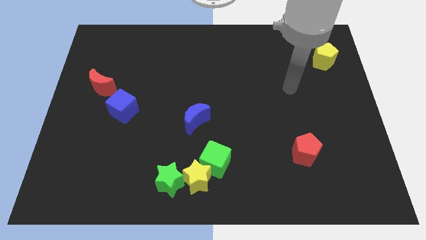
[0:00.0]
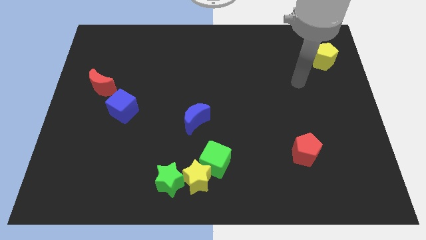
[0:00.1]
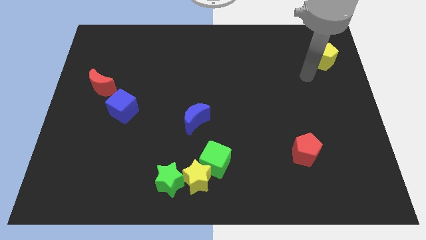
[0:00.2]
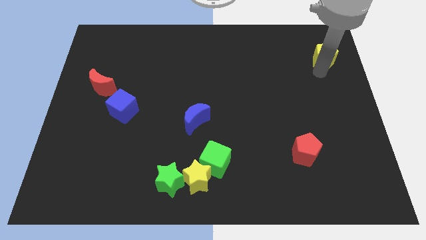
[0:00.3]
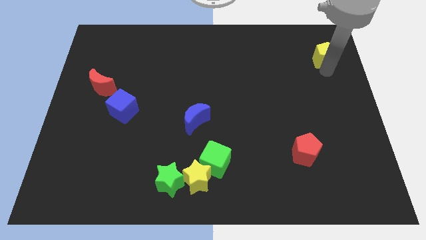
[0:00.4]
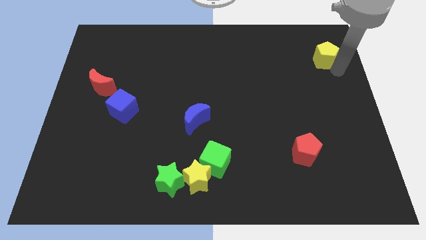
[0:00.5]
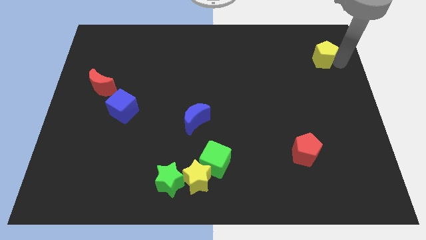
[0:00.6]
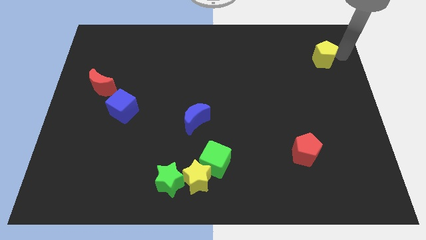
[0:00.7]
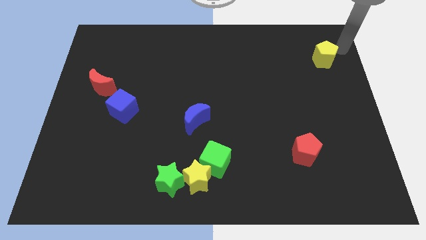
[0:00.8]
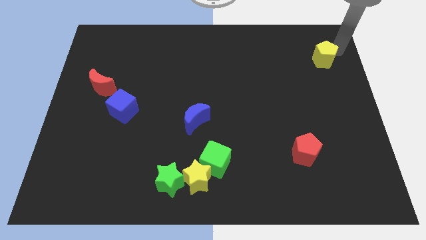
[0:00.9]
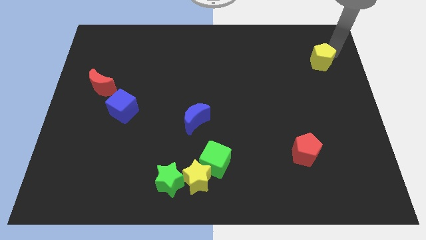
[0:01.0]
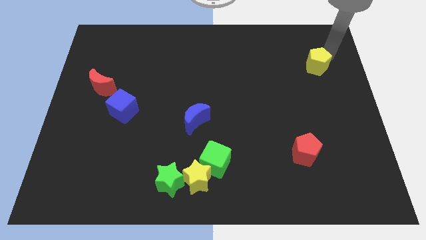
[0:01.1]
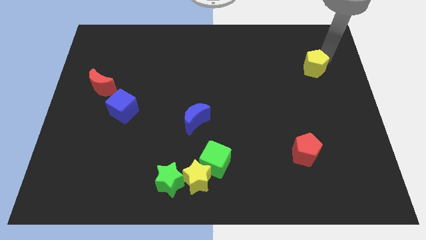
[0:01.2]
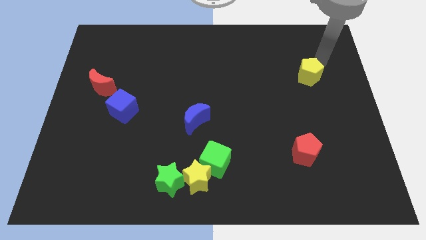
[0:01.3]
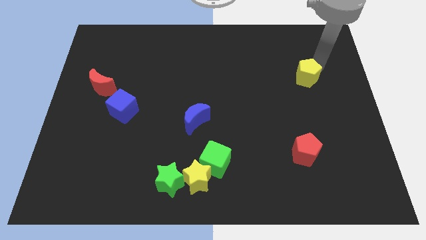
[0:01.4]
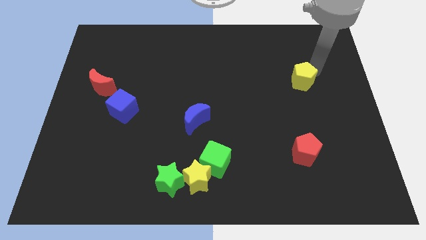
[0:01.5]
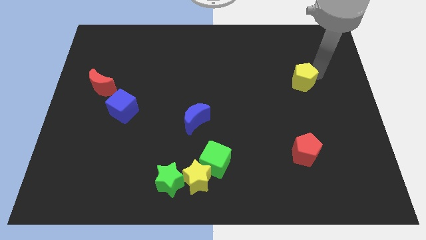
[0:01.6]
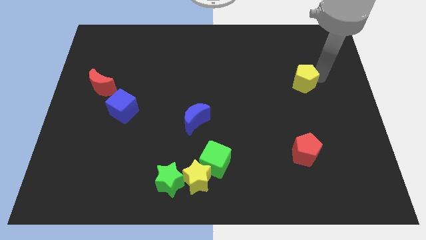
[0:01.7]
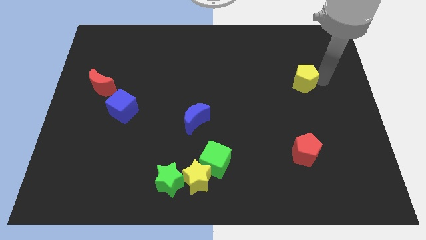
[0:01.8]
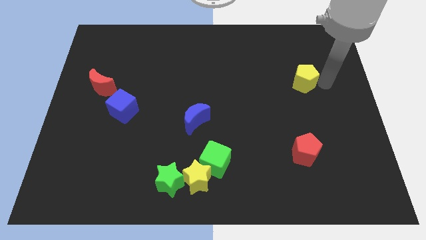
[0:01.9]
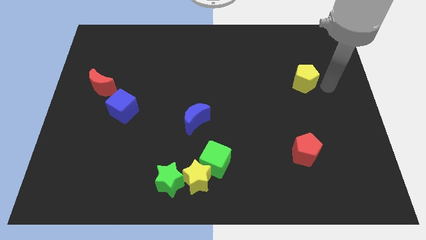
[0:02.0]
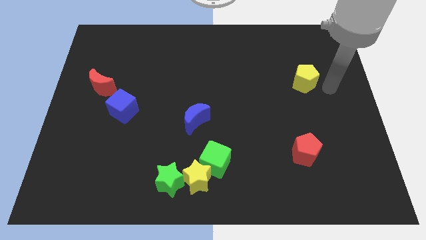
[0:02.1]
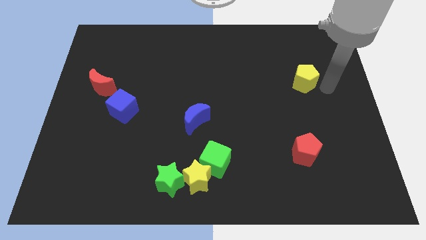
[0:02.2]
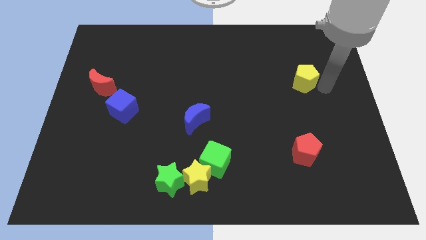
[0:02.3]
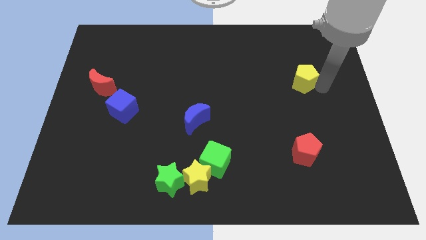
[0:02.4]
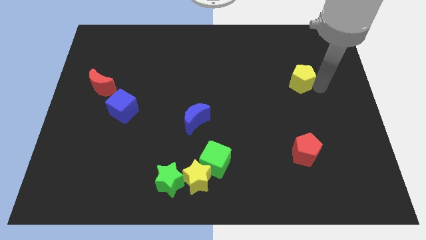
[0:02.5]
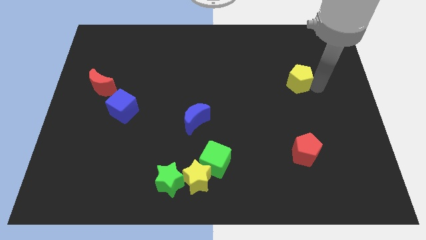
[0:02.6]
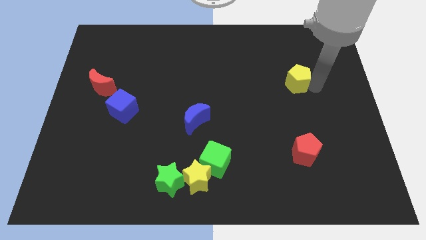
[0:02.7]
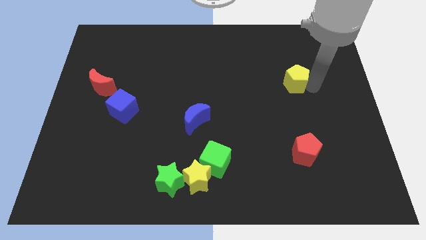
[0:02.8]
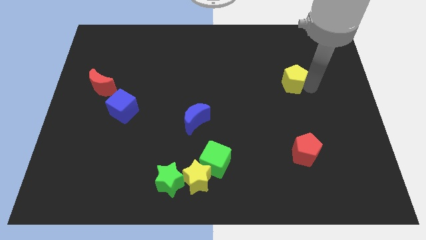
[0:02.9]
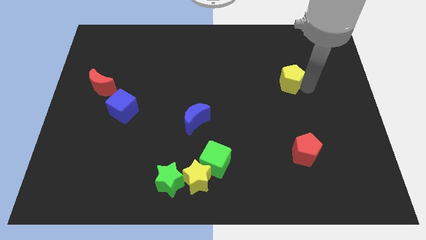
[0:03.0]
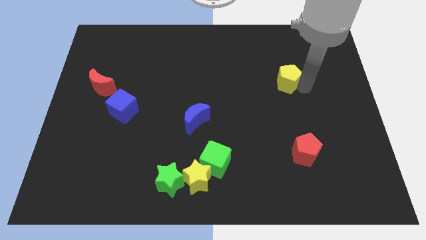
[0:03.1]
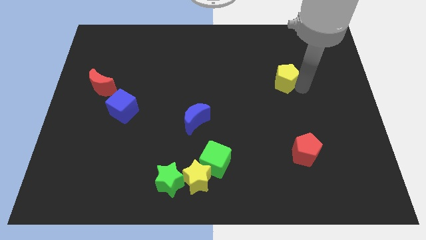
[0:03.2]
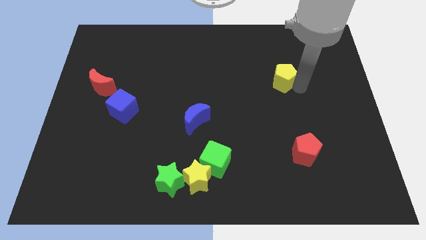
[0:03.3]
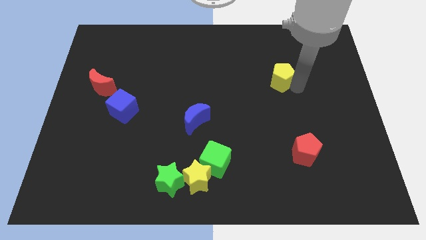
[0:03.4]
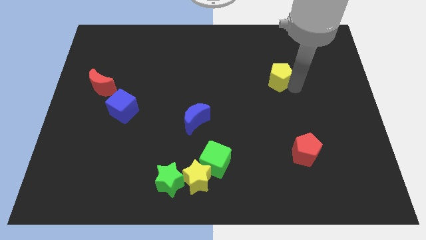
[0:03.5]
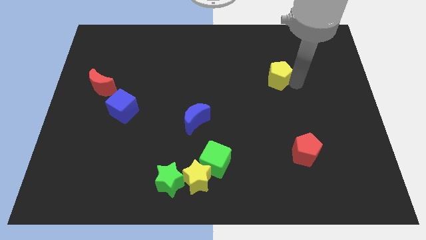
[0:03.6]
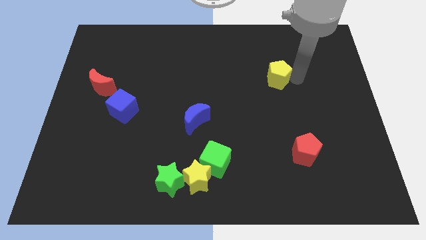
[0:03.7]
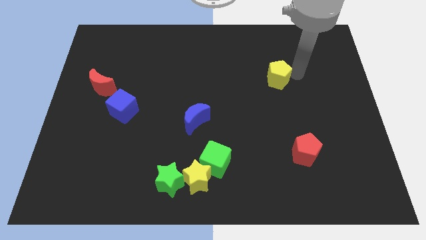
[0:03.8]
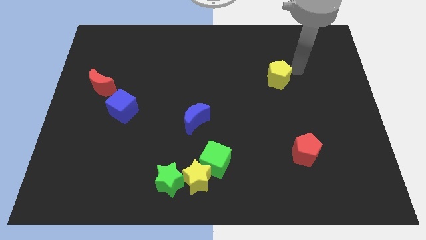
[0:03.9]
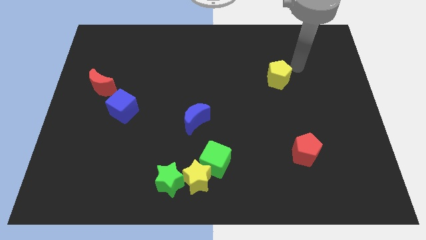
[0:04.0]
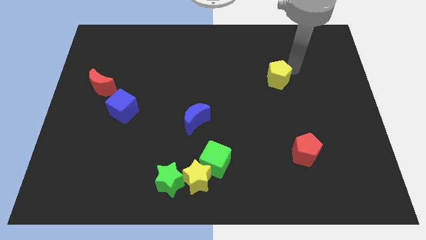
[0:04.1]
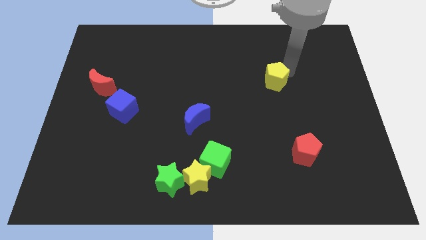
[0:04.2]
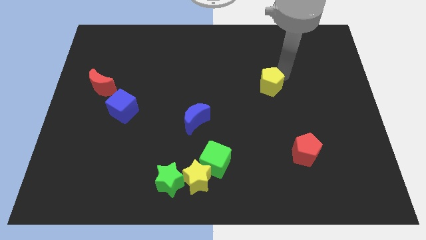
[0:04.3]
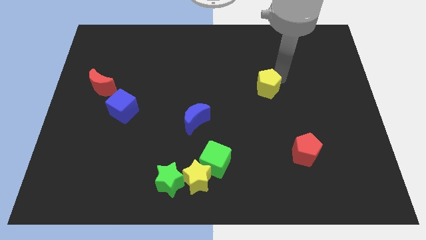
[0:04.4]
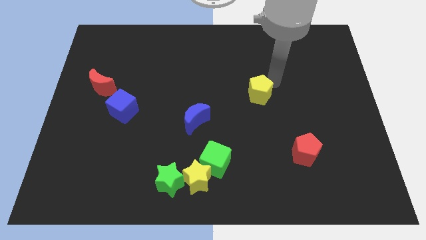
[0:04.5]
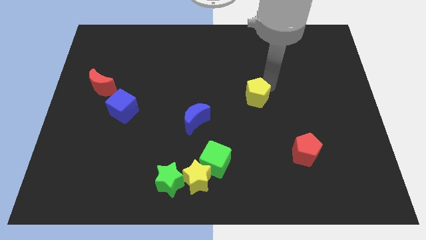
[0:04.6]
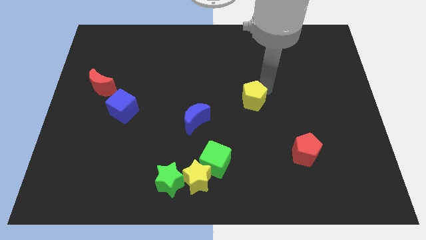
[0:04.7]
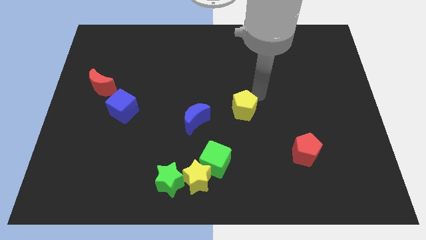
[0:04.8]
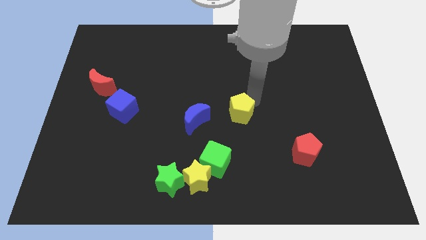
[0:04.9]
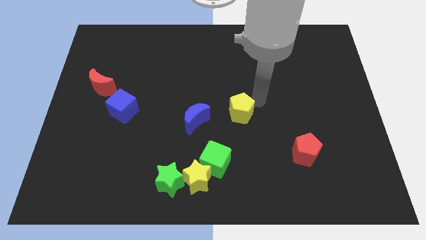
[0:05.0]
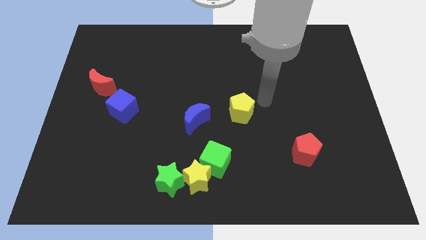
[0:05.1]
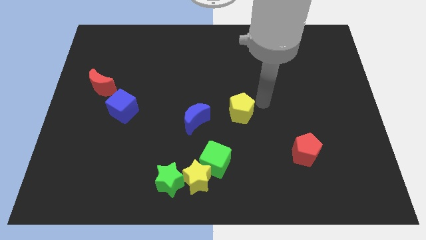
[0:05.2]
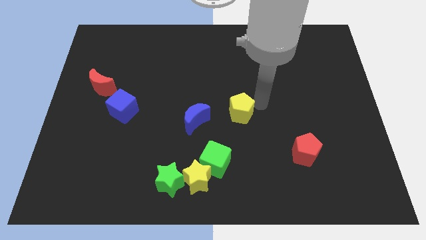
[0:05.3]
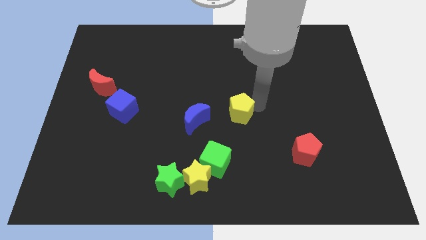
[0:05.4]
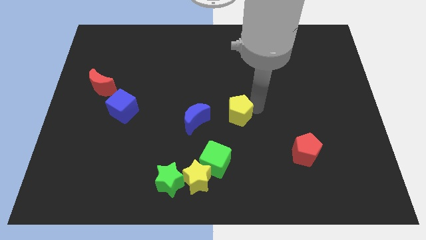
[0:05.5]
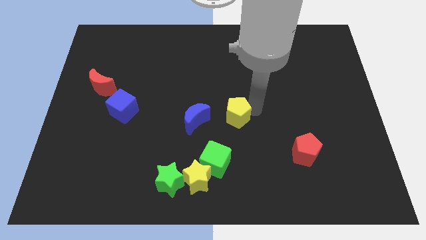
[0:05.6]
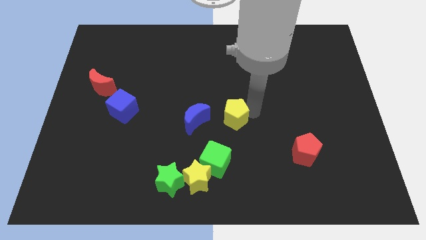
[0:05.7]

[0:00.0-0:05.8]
move the yellow pentagon above the green cube
